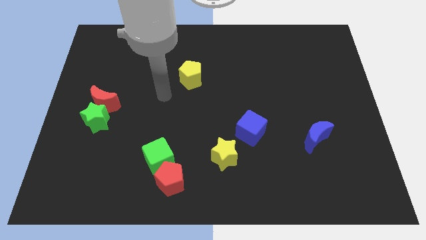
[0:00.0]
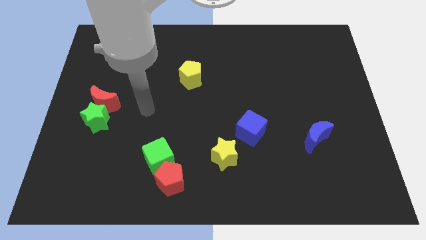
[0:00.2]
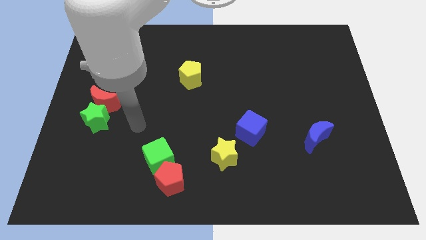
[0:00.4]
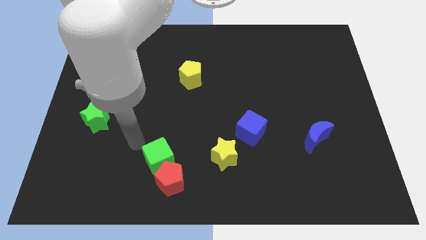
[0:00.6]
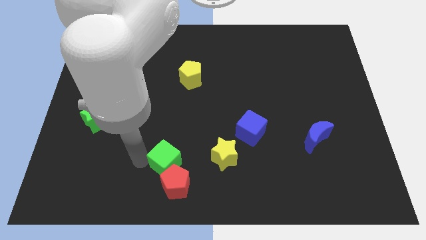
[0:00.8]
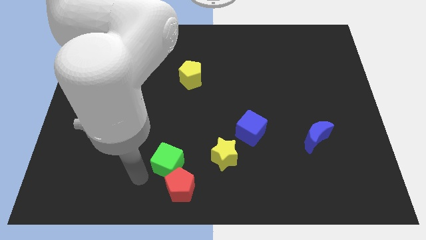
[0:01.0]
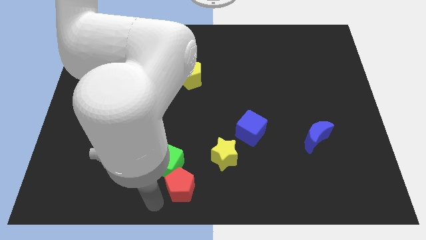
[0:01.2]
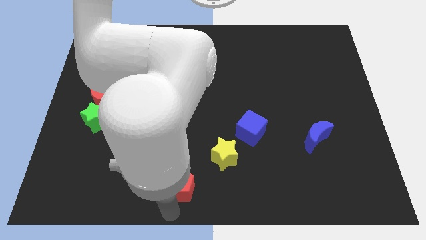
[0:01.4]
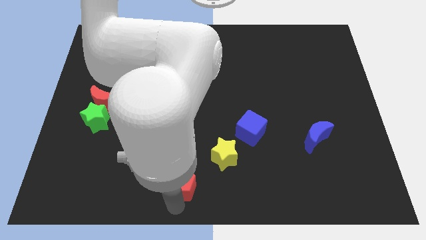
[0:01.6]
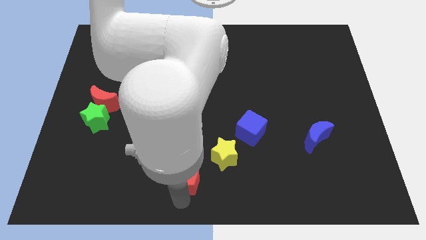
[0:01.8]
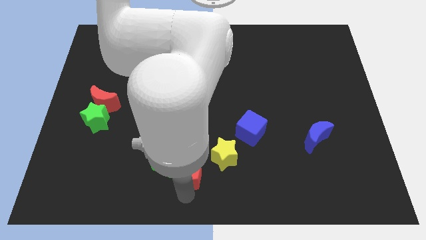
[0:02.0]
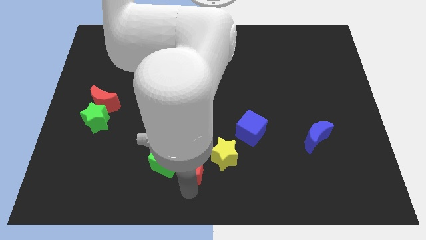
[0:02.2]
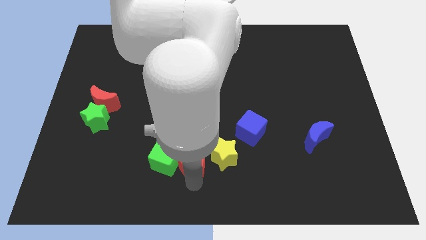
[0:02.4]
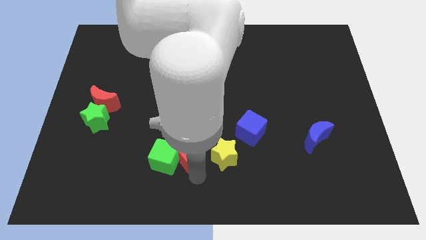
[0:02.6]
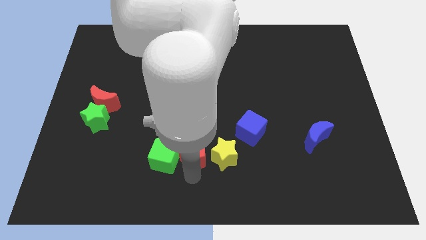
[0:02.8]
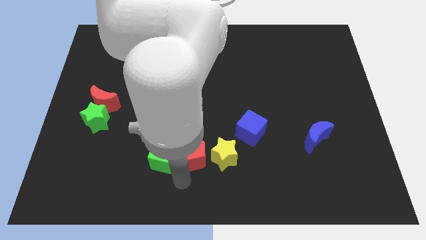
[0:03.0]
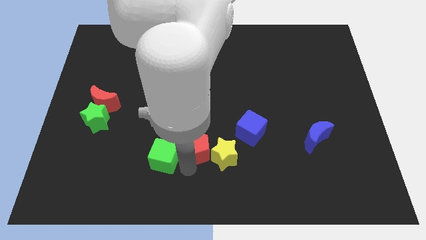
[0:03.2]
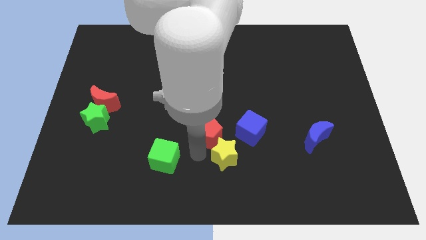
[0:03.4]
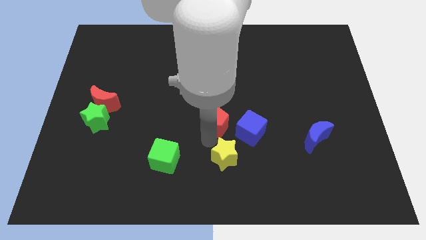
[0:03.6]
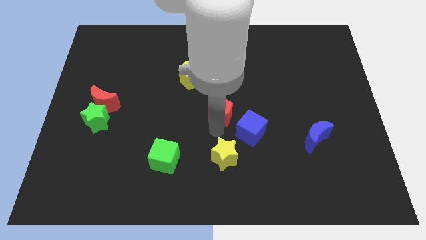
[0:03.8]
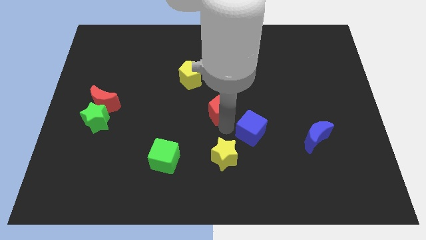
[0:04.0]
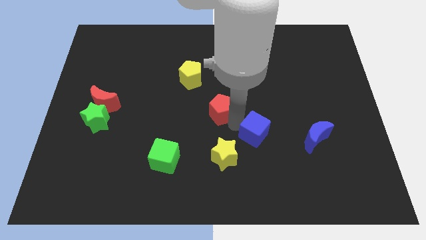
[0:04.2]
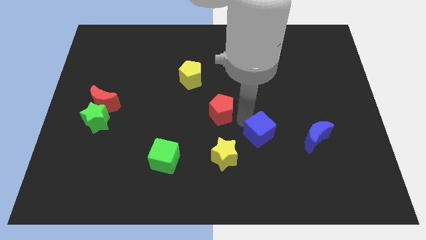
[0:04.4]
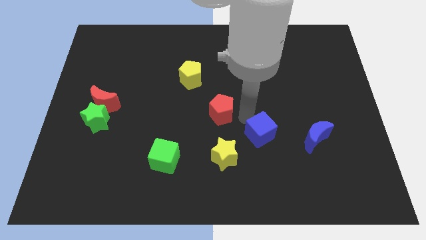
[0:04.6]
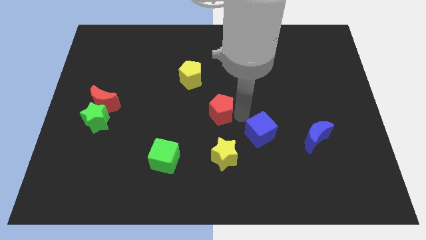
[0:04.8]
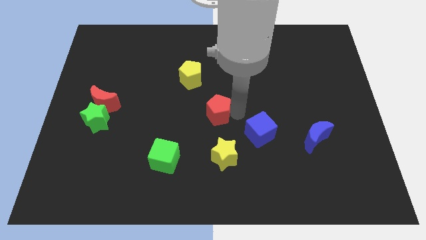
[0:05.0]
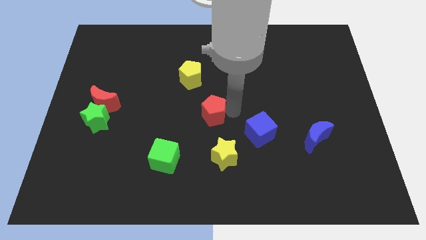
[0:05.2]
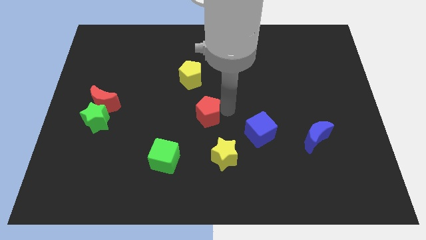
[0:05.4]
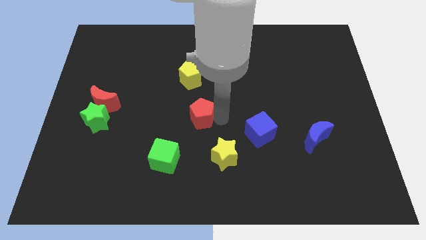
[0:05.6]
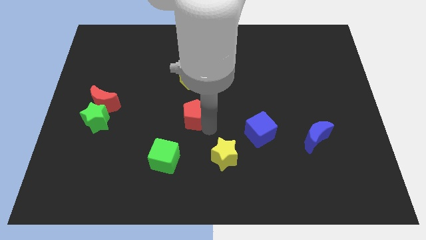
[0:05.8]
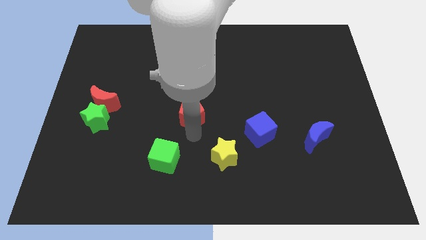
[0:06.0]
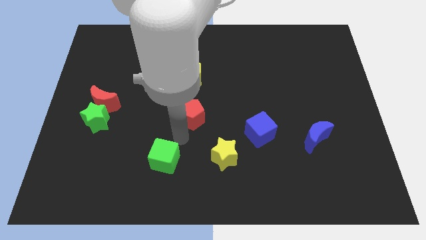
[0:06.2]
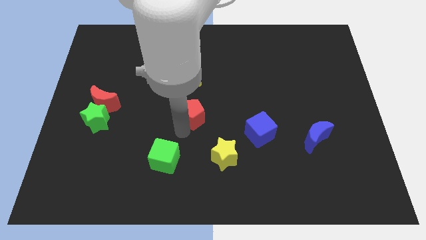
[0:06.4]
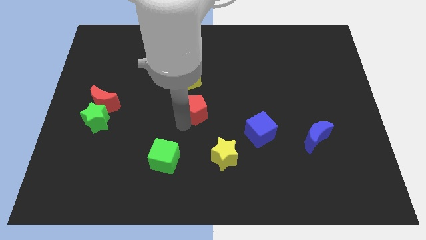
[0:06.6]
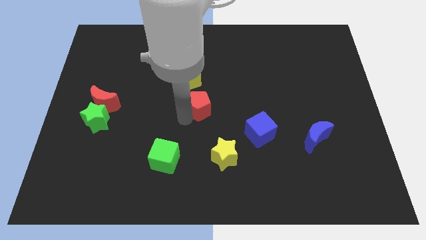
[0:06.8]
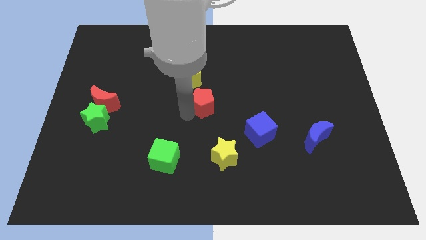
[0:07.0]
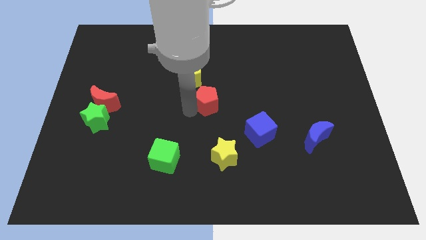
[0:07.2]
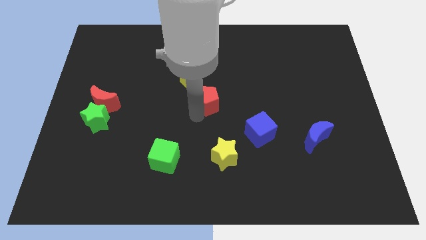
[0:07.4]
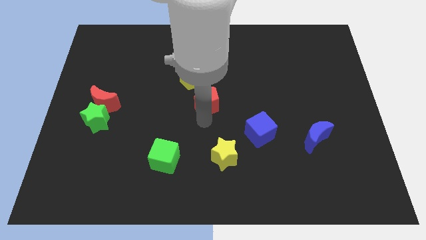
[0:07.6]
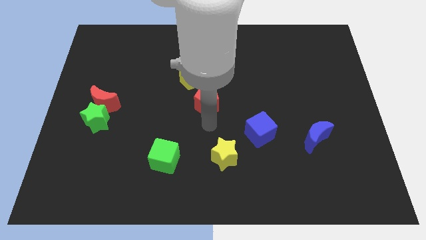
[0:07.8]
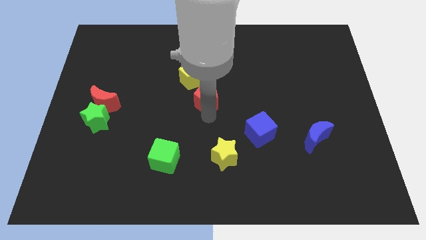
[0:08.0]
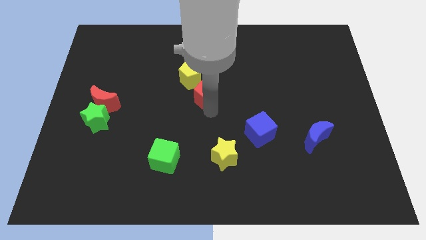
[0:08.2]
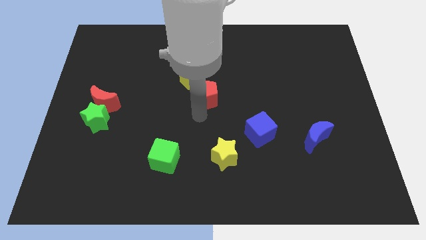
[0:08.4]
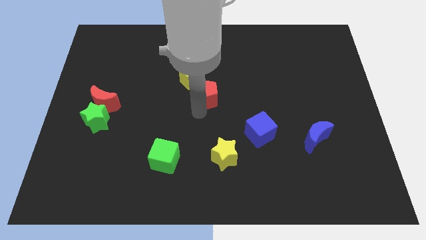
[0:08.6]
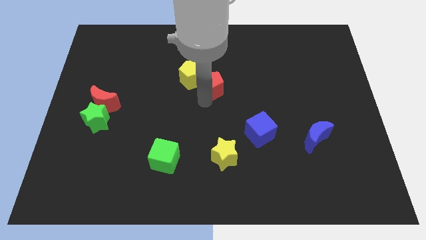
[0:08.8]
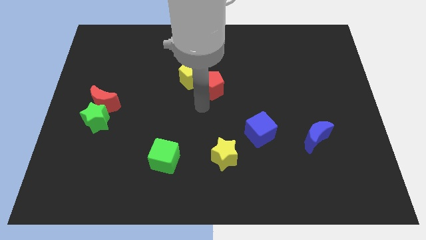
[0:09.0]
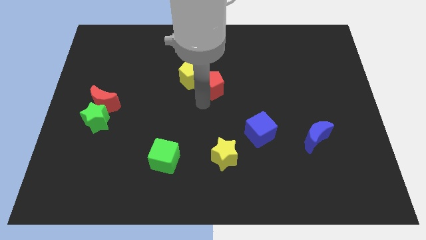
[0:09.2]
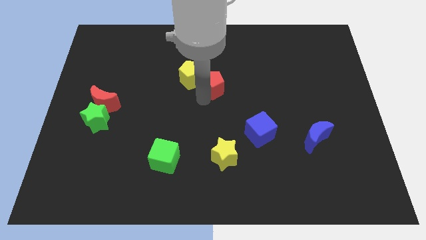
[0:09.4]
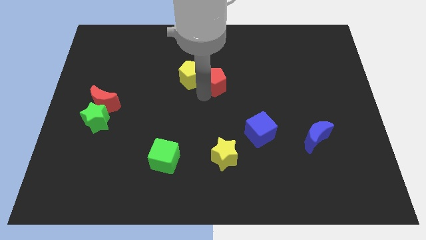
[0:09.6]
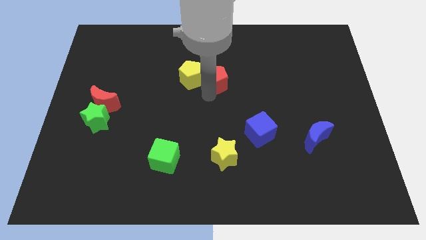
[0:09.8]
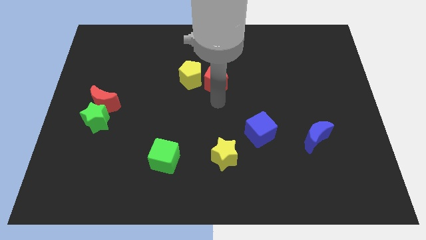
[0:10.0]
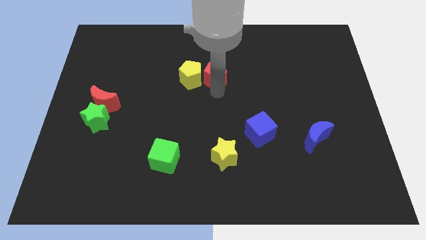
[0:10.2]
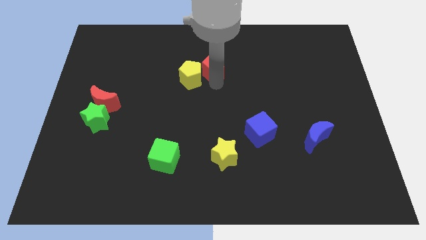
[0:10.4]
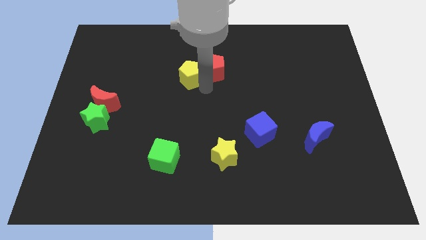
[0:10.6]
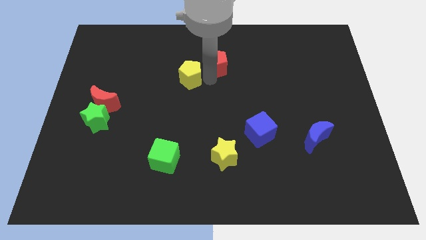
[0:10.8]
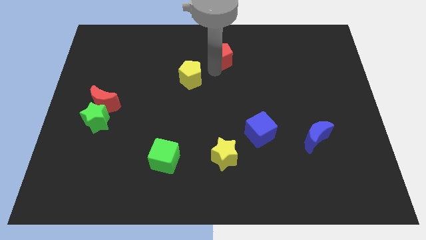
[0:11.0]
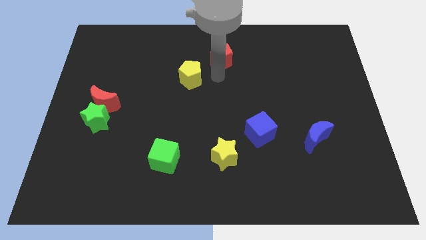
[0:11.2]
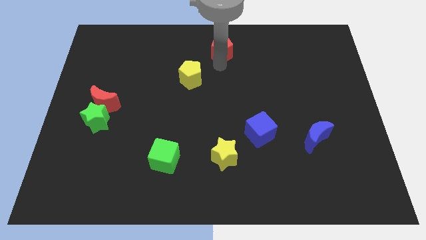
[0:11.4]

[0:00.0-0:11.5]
put the red pentagon to the towards your base
